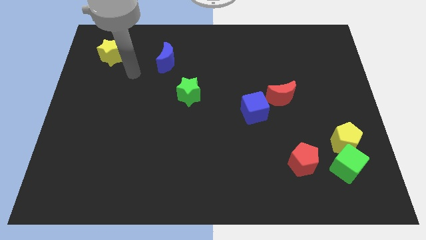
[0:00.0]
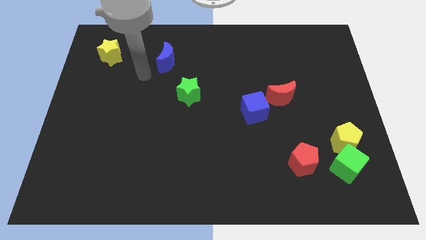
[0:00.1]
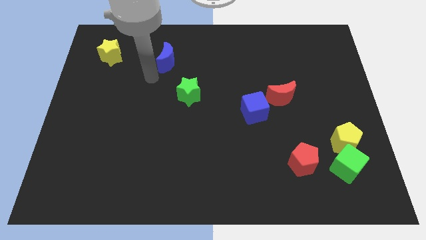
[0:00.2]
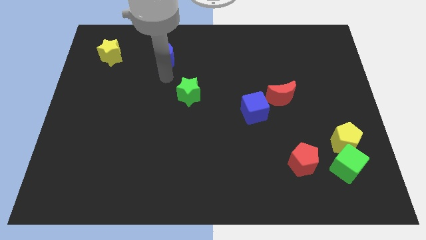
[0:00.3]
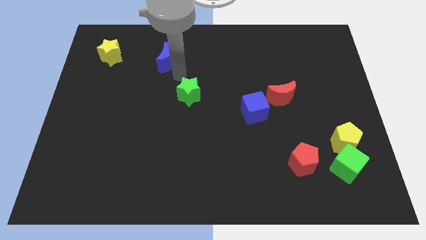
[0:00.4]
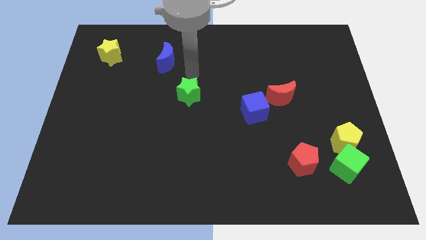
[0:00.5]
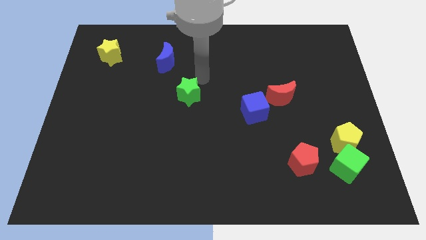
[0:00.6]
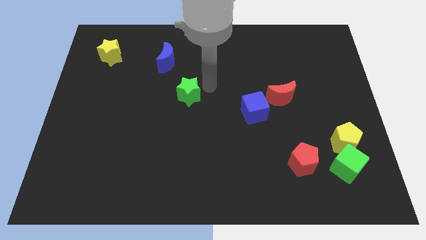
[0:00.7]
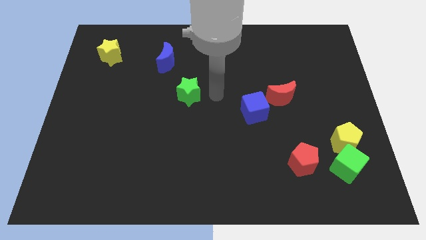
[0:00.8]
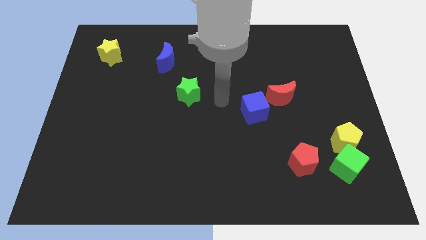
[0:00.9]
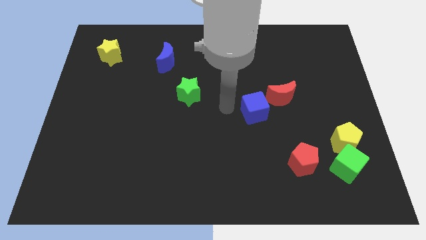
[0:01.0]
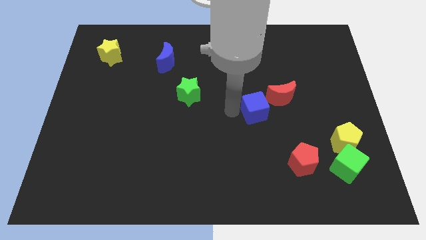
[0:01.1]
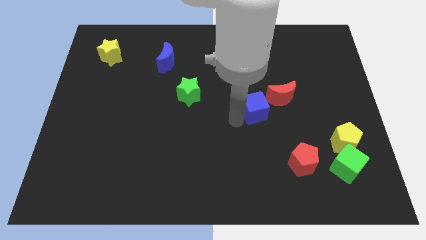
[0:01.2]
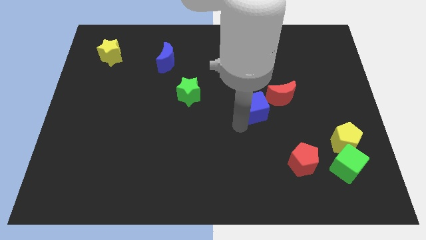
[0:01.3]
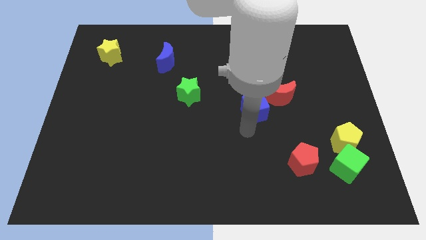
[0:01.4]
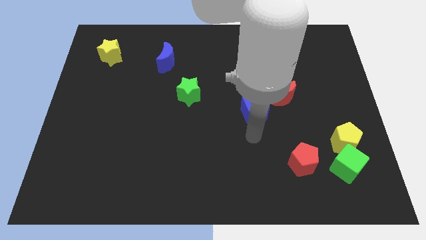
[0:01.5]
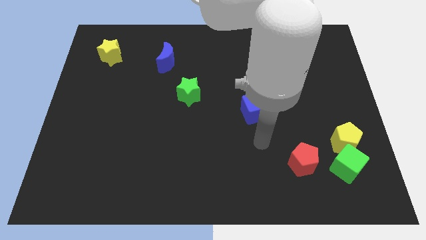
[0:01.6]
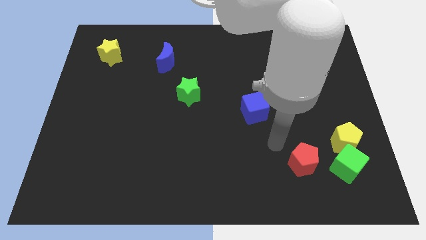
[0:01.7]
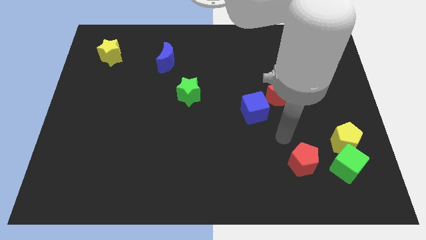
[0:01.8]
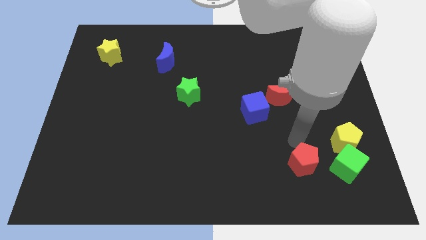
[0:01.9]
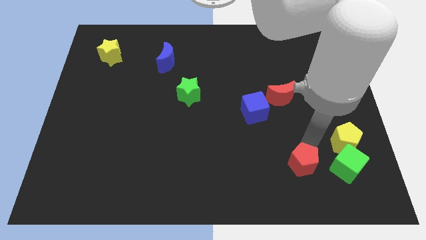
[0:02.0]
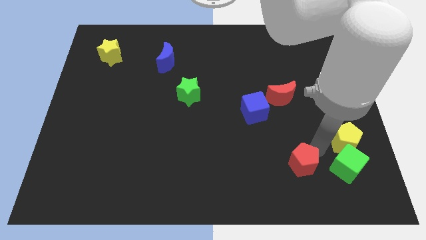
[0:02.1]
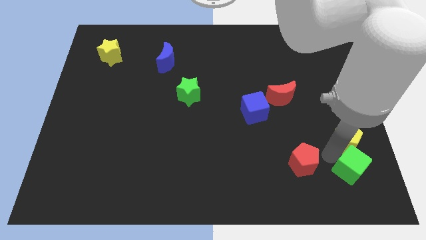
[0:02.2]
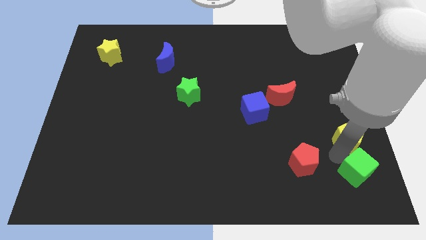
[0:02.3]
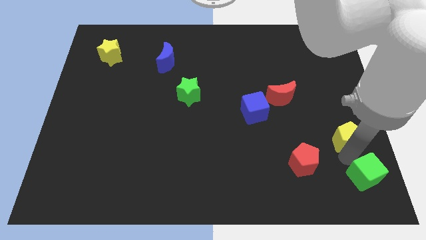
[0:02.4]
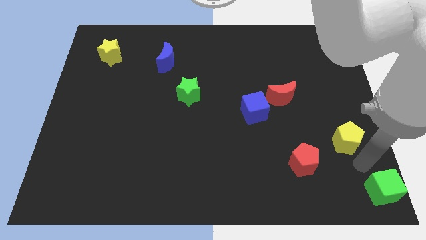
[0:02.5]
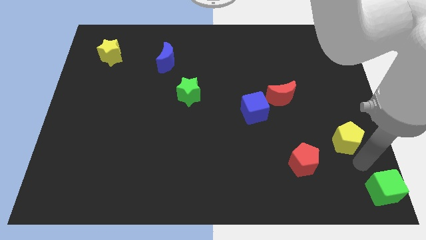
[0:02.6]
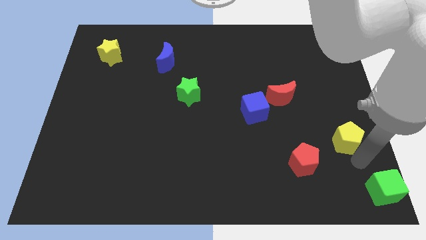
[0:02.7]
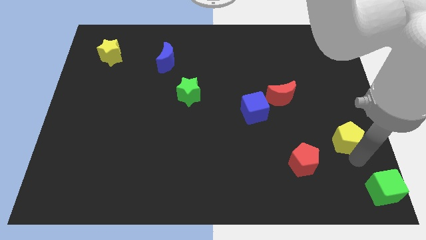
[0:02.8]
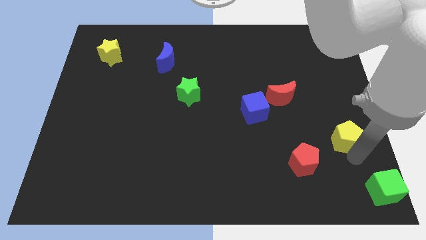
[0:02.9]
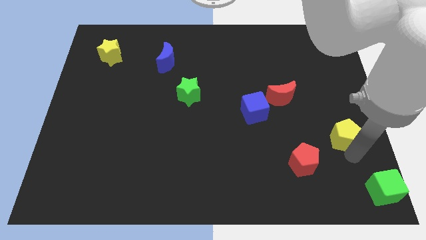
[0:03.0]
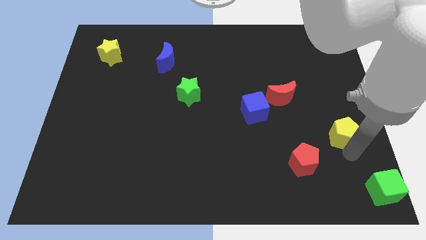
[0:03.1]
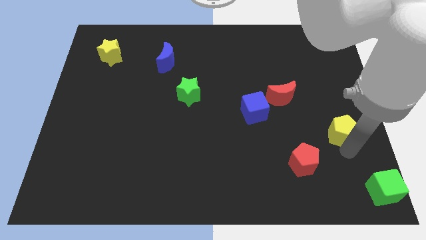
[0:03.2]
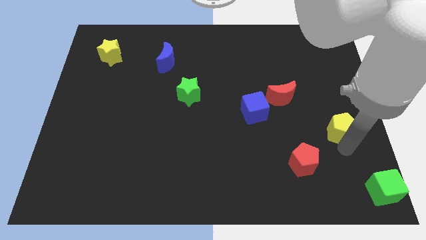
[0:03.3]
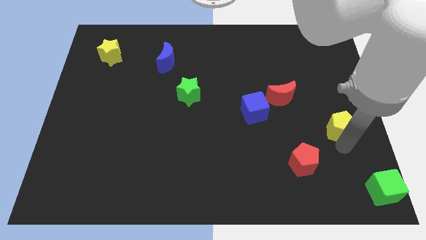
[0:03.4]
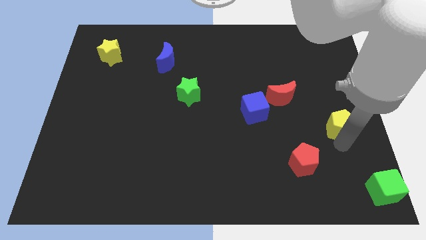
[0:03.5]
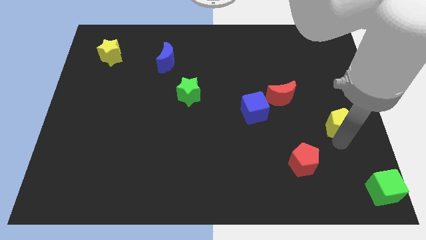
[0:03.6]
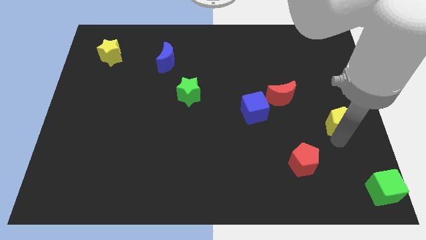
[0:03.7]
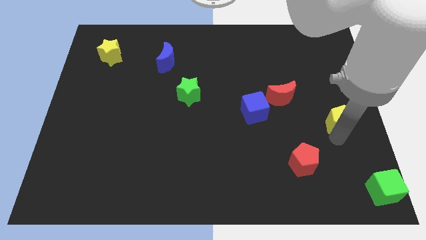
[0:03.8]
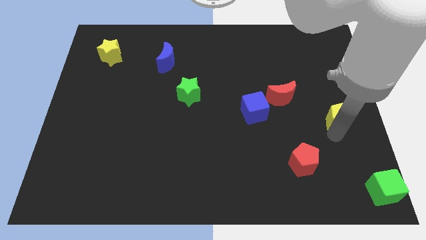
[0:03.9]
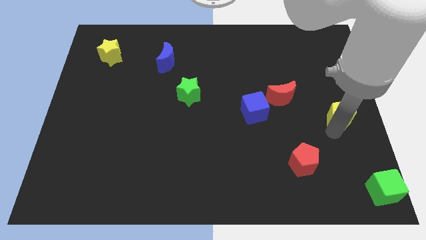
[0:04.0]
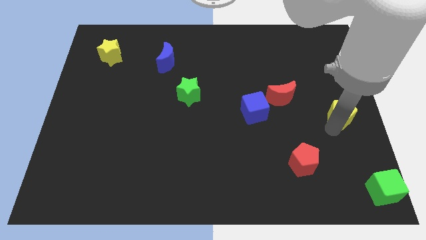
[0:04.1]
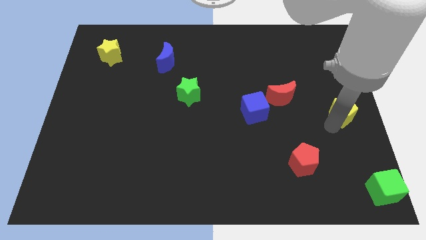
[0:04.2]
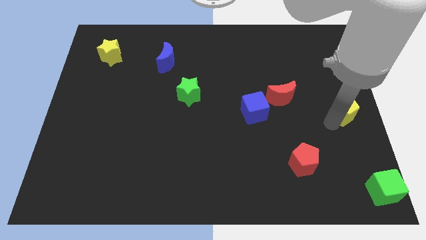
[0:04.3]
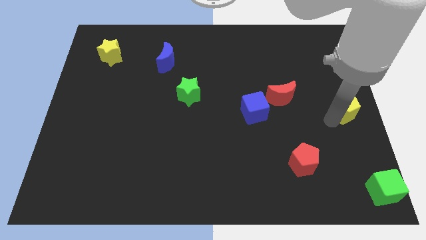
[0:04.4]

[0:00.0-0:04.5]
move the yellow pentagon to the right of the red moon

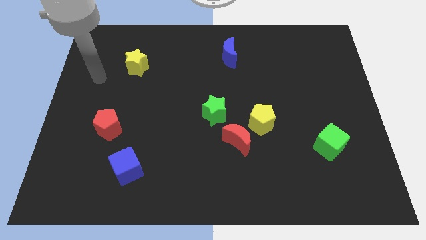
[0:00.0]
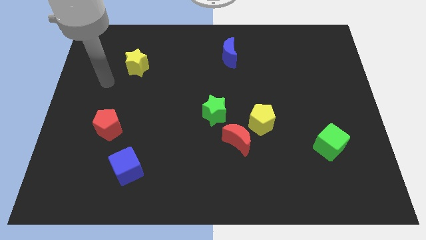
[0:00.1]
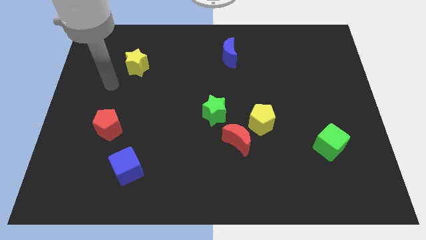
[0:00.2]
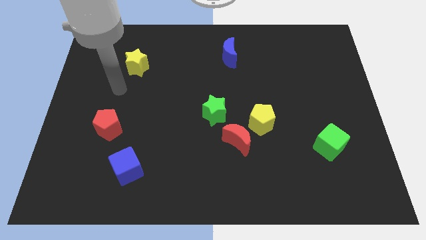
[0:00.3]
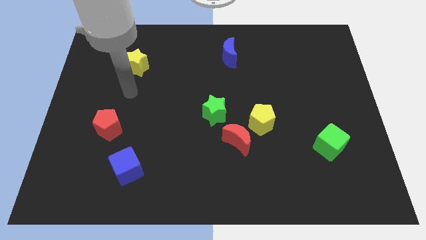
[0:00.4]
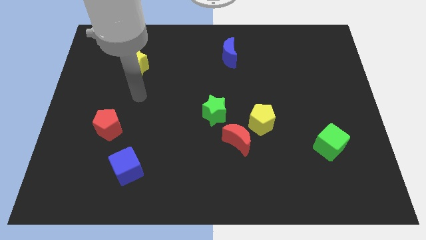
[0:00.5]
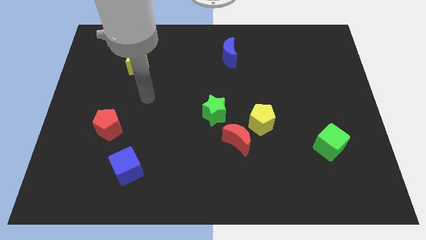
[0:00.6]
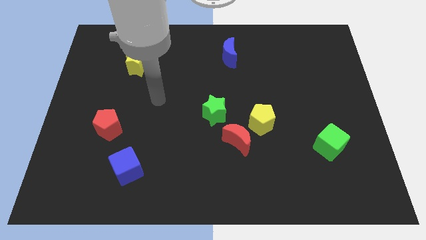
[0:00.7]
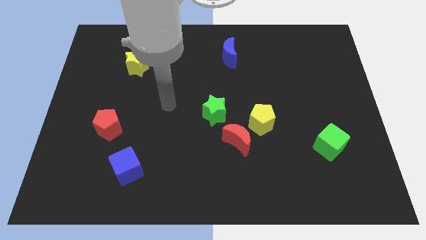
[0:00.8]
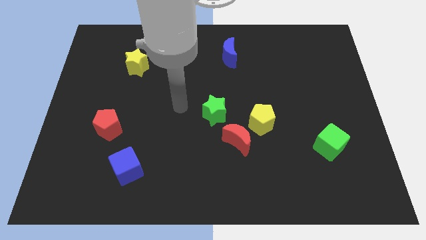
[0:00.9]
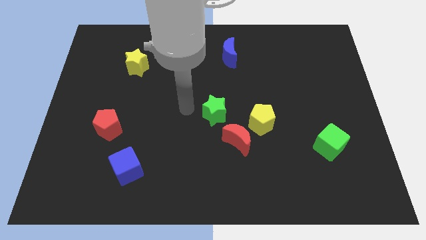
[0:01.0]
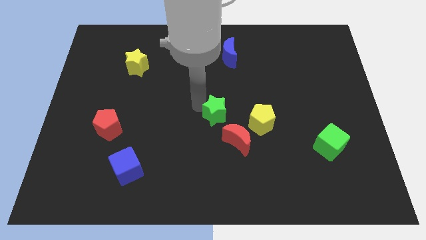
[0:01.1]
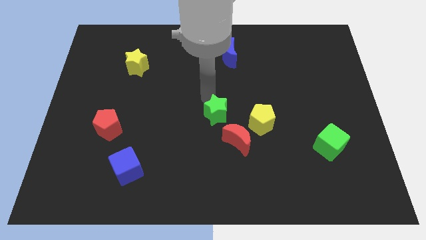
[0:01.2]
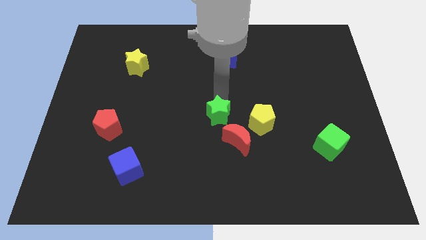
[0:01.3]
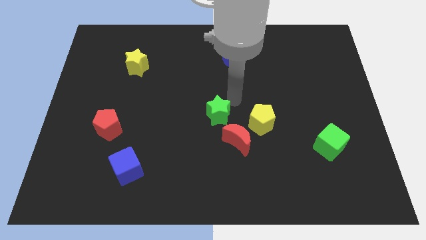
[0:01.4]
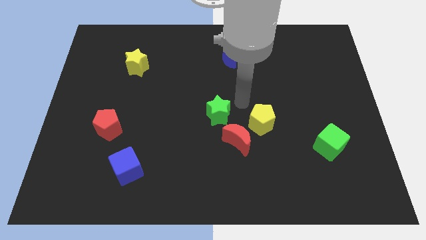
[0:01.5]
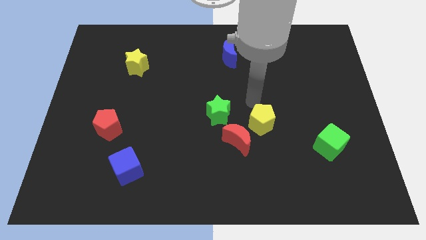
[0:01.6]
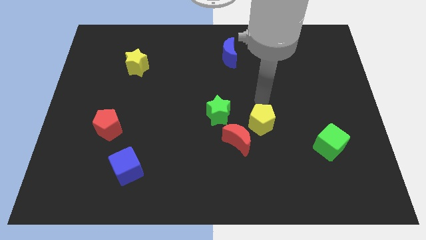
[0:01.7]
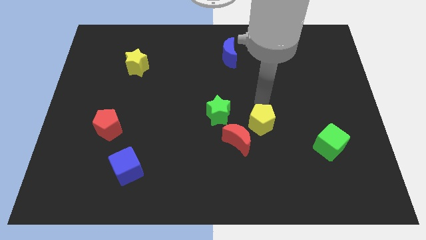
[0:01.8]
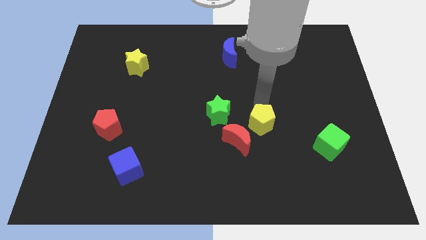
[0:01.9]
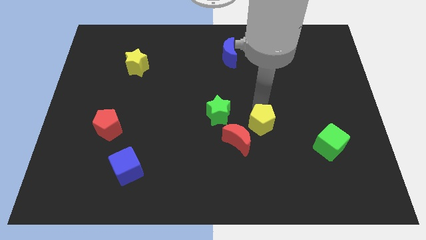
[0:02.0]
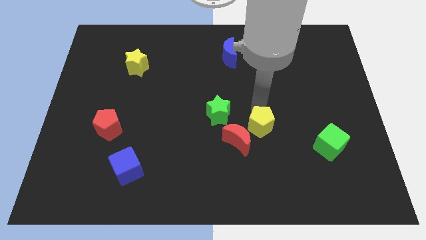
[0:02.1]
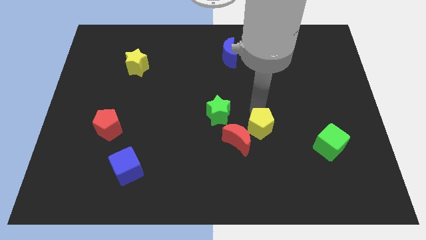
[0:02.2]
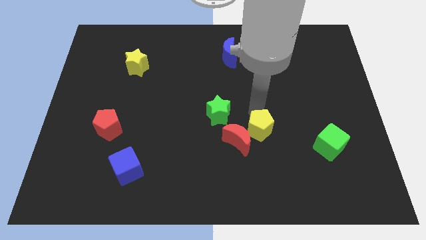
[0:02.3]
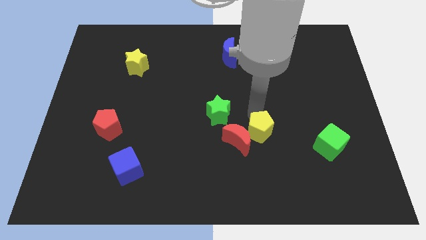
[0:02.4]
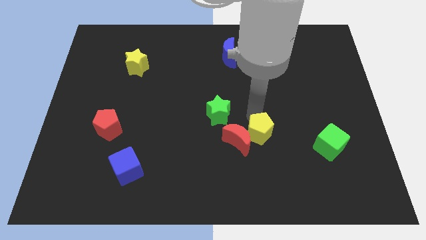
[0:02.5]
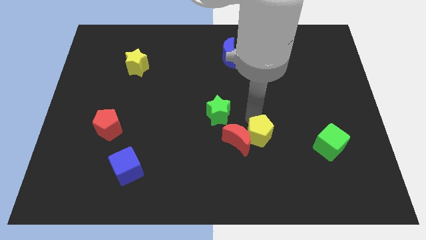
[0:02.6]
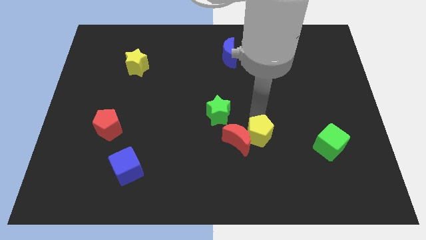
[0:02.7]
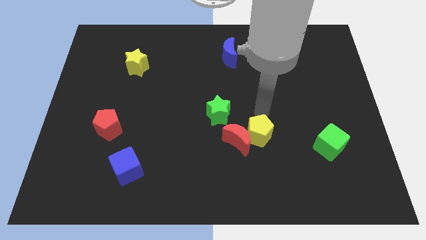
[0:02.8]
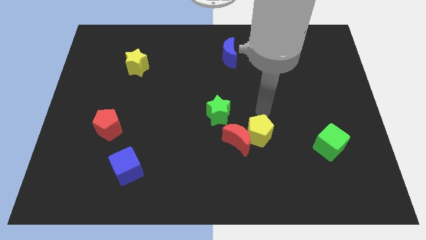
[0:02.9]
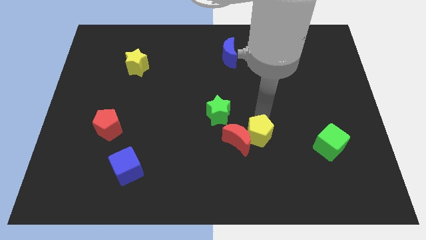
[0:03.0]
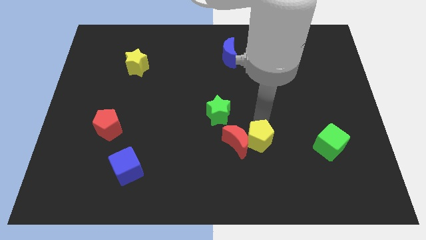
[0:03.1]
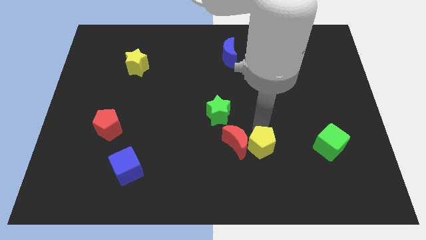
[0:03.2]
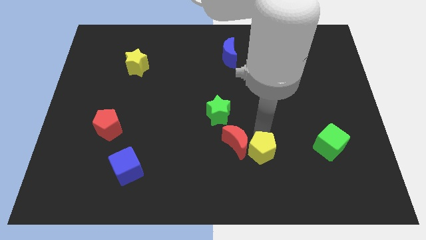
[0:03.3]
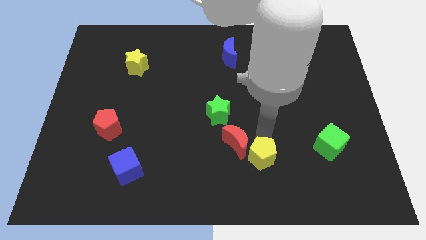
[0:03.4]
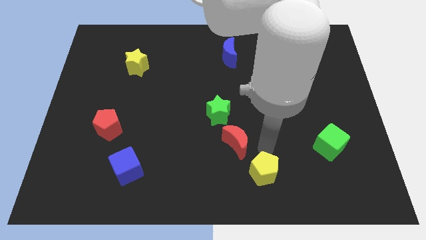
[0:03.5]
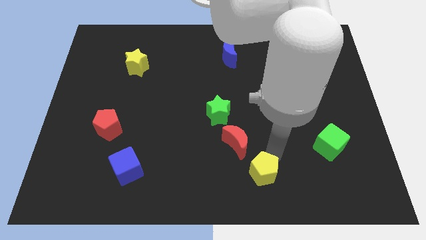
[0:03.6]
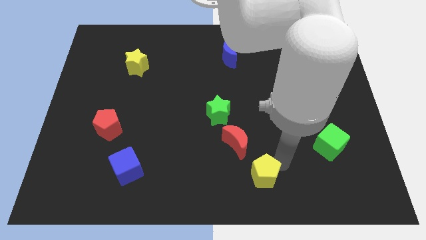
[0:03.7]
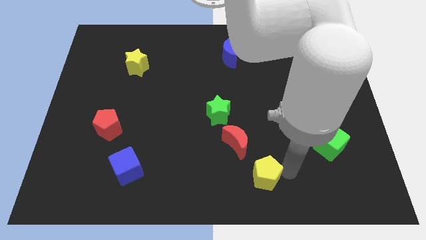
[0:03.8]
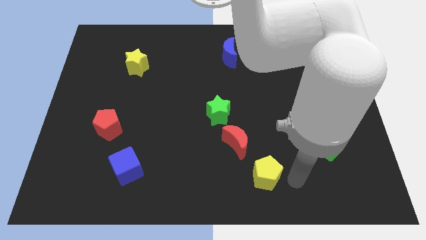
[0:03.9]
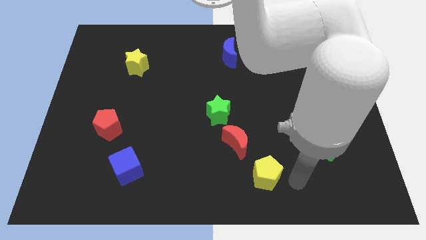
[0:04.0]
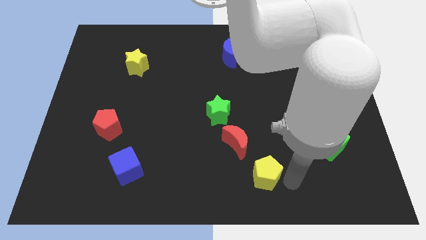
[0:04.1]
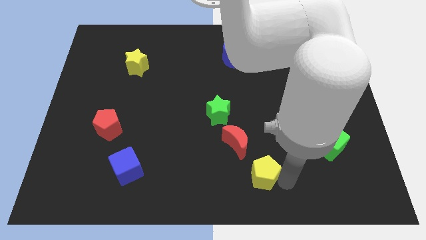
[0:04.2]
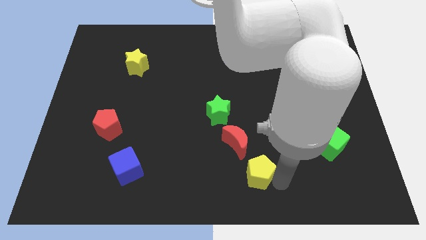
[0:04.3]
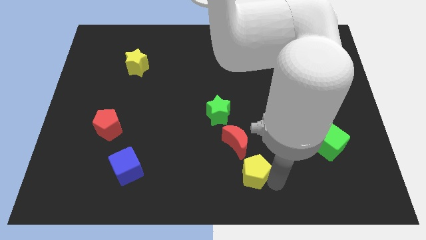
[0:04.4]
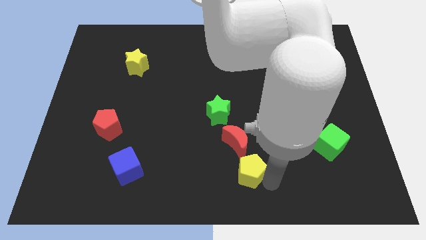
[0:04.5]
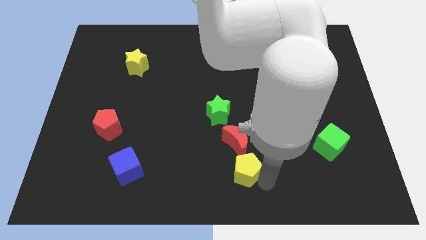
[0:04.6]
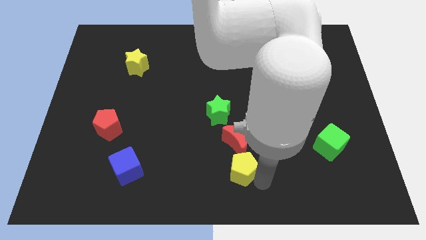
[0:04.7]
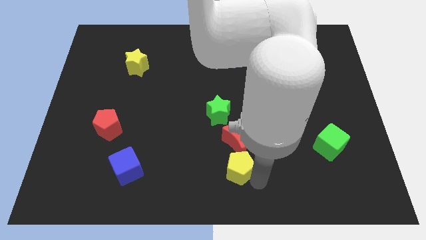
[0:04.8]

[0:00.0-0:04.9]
move the yellow pentagon diagonally down and to the left of the red moon
